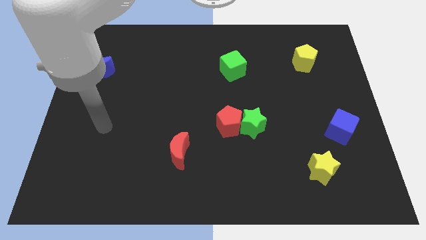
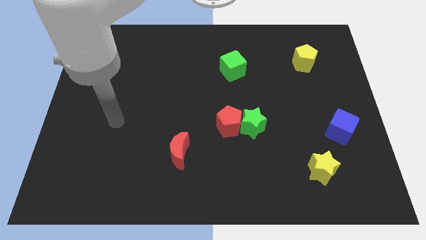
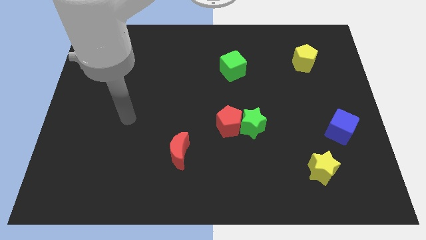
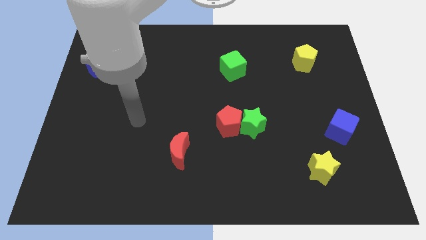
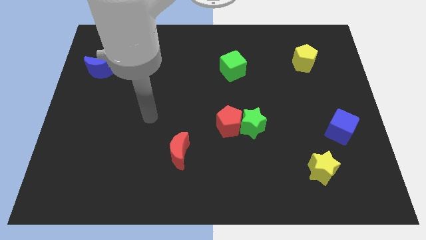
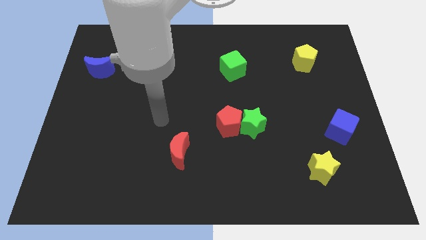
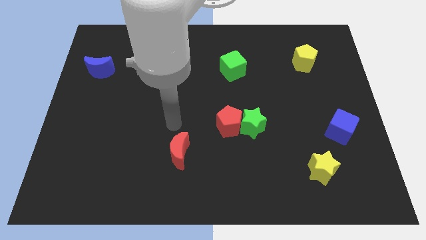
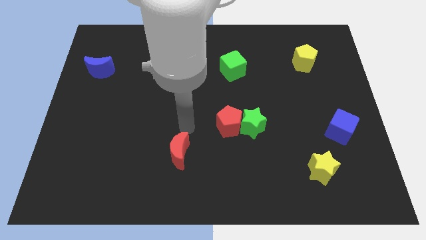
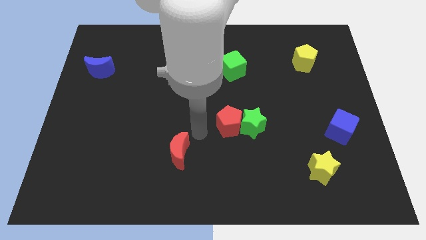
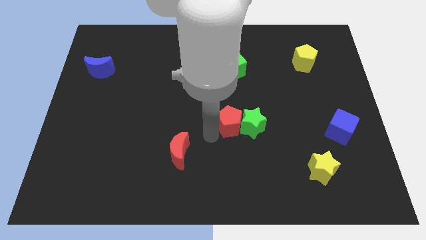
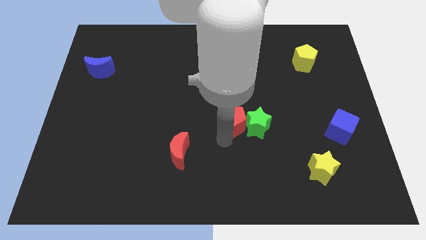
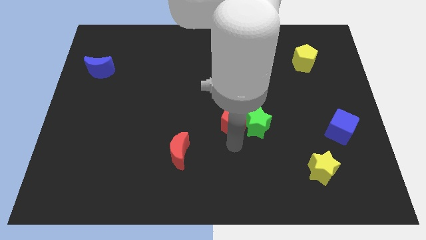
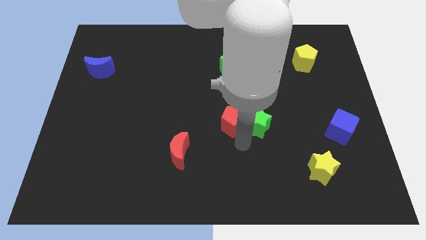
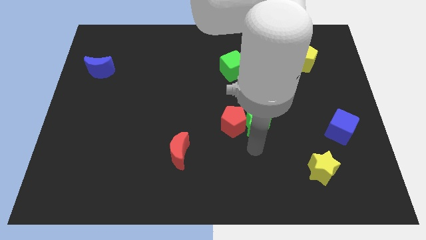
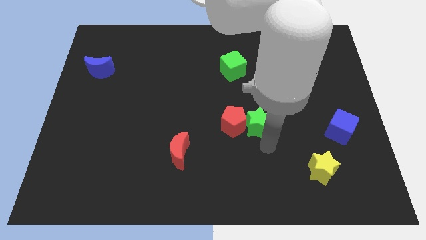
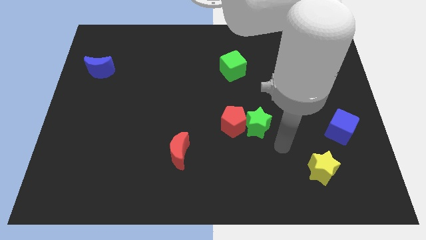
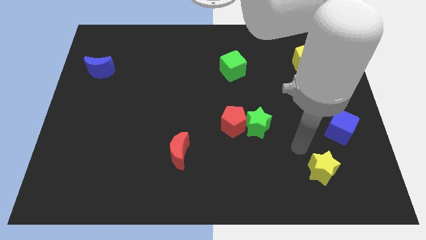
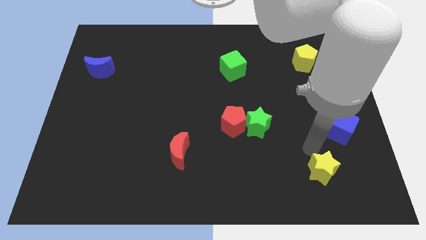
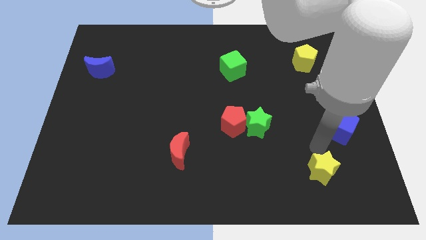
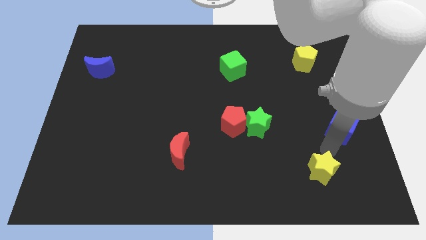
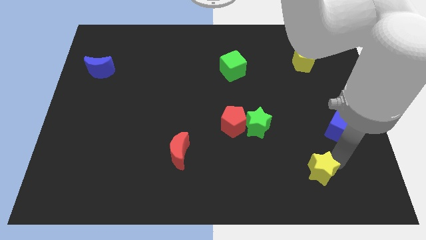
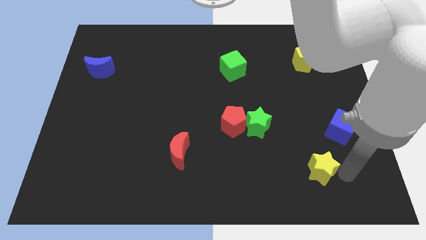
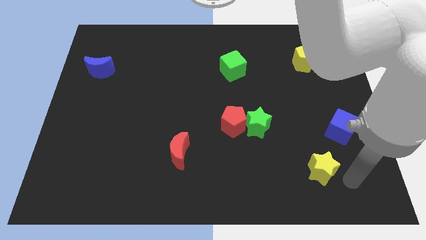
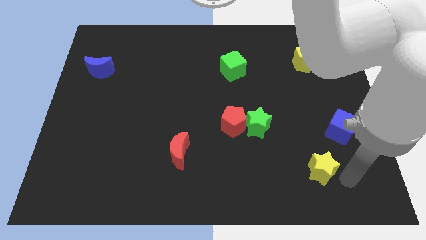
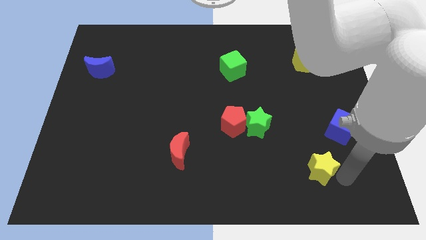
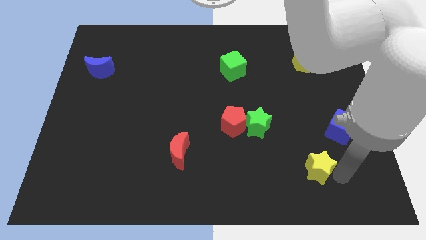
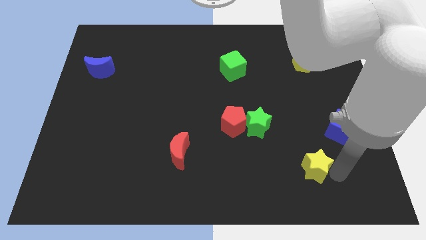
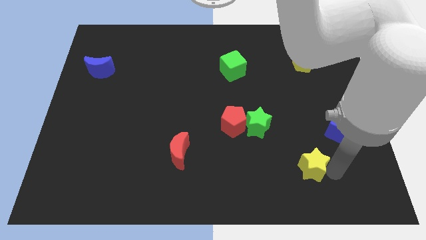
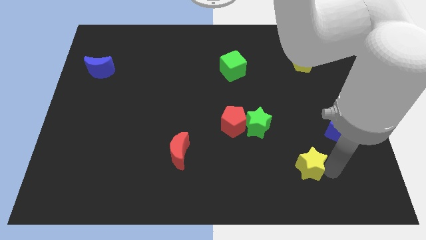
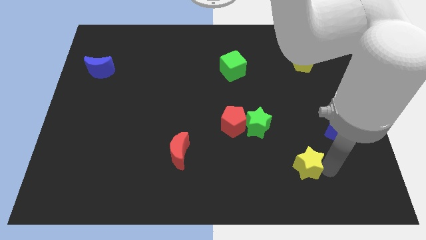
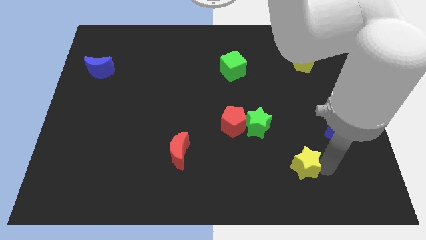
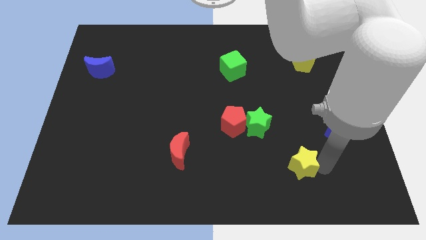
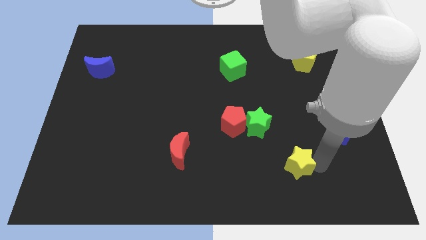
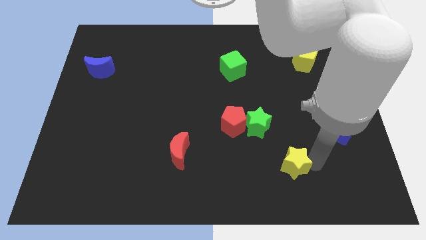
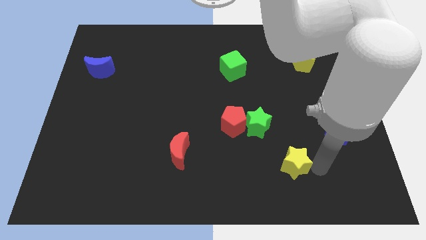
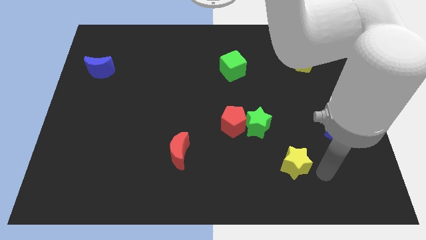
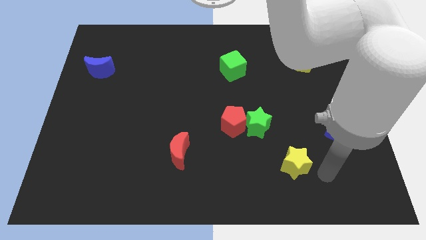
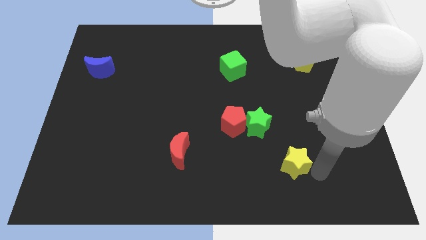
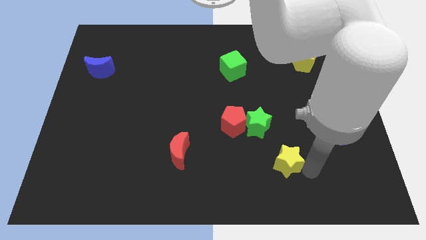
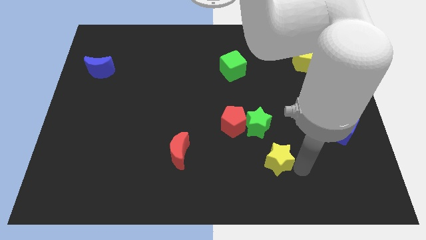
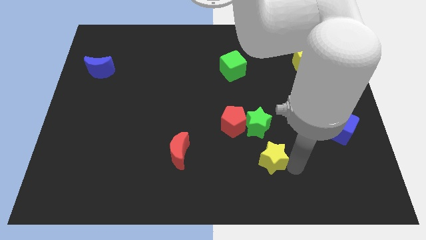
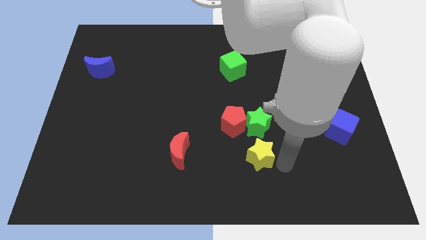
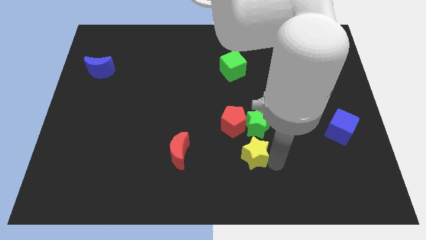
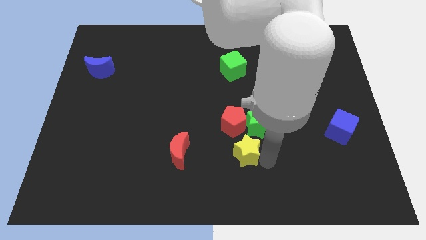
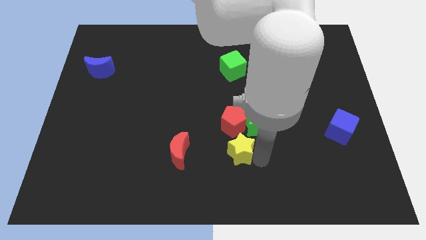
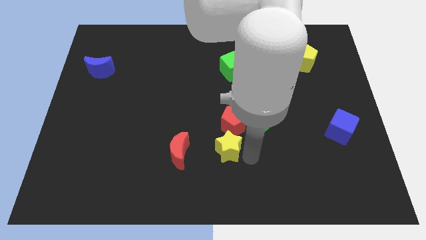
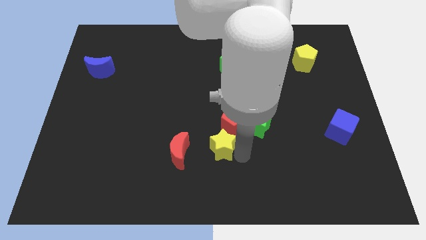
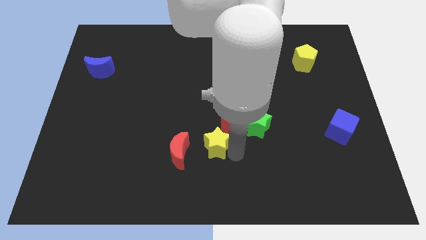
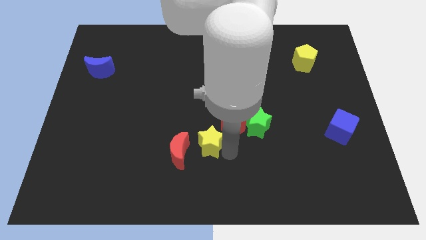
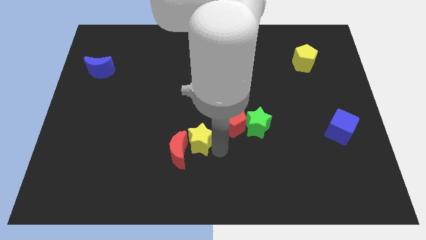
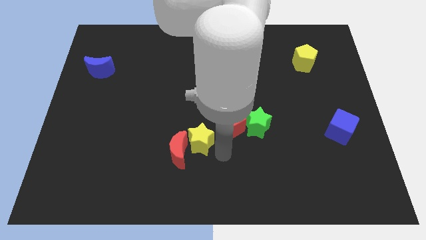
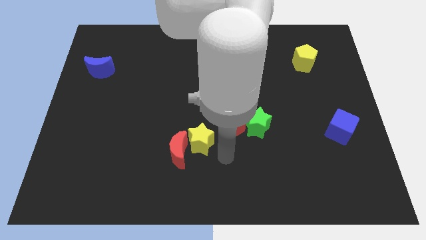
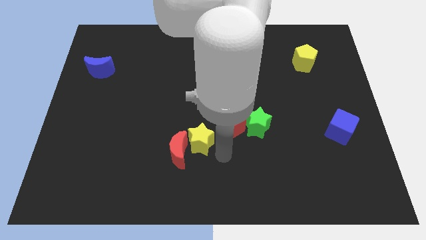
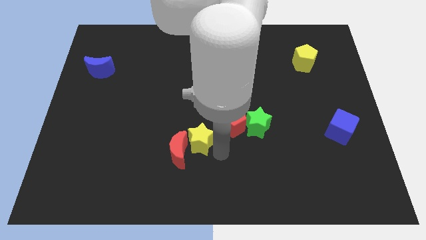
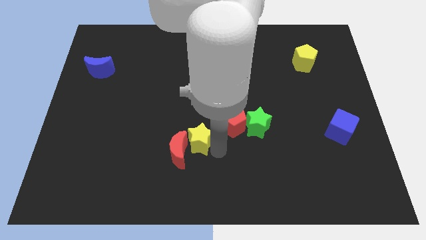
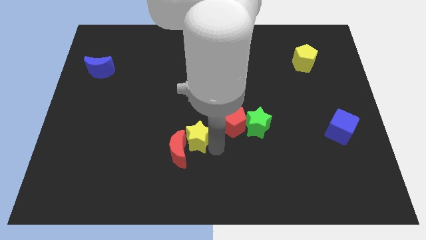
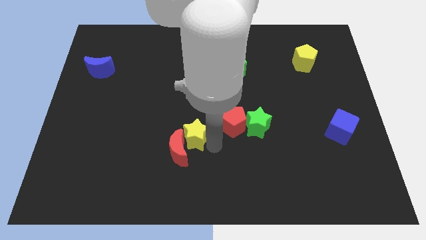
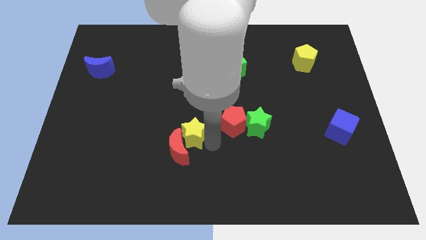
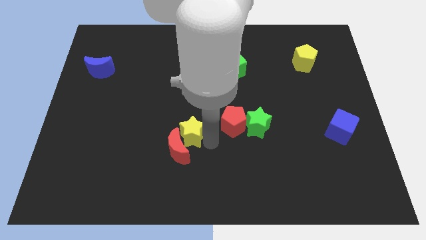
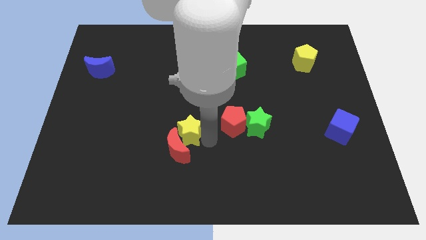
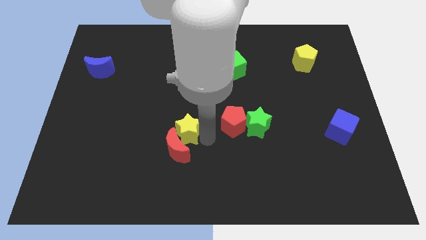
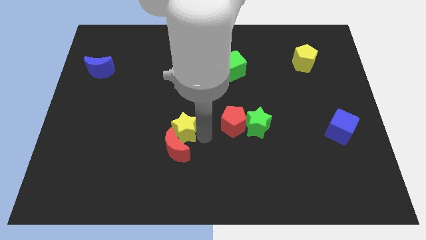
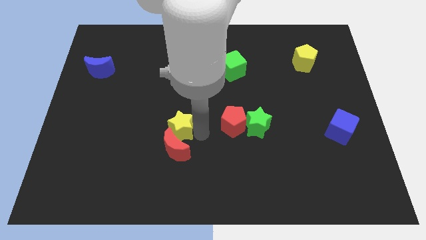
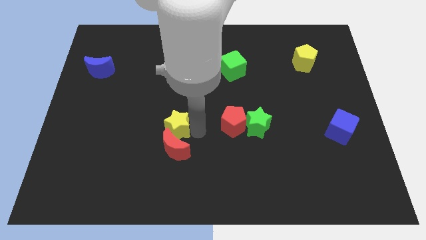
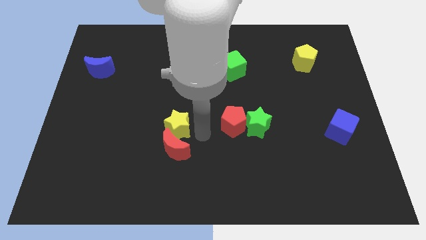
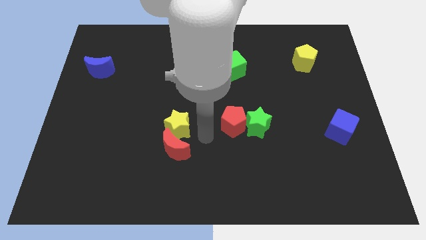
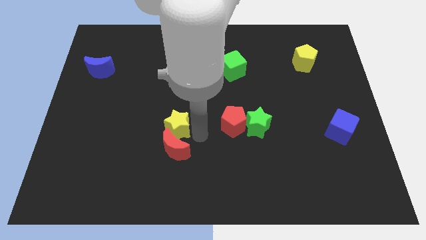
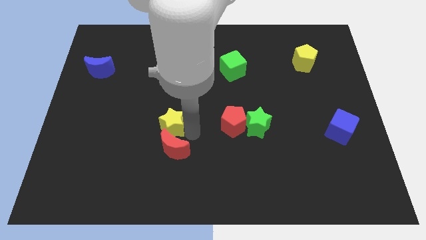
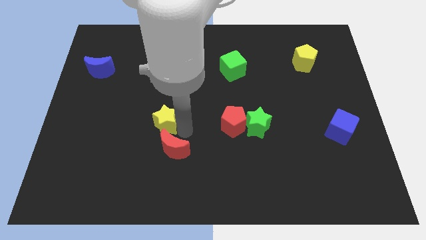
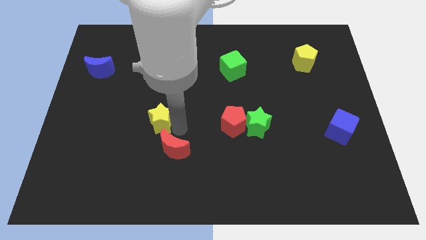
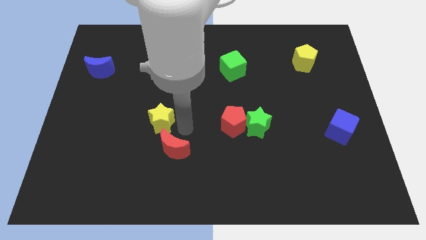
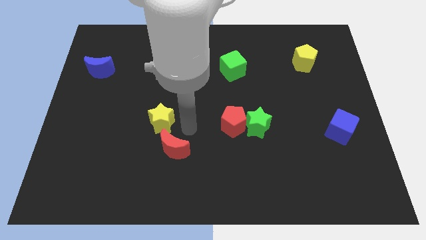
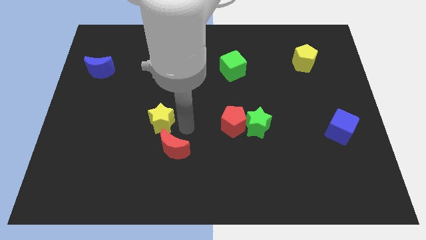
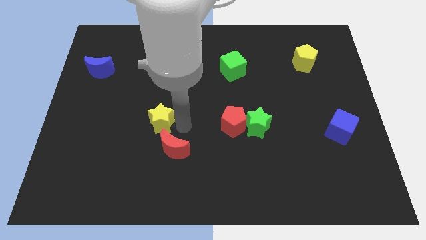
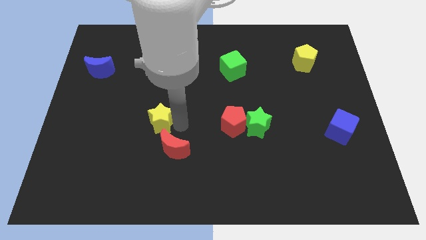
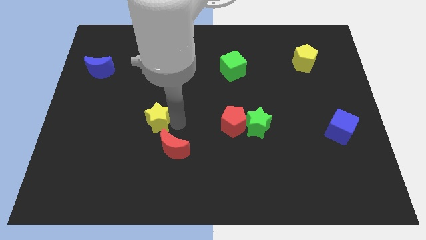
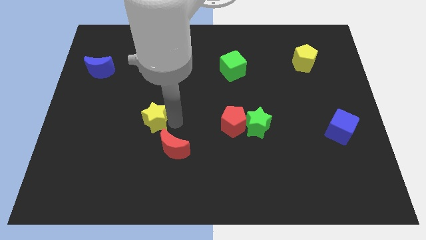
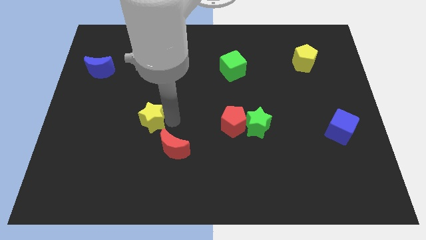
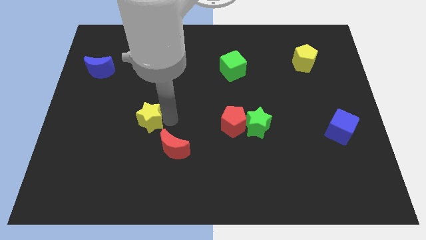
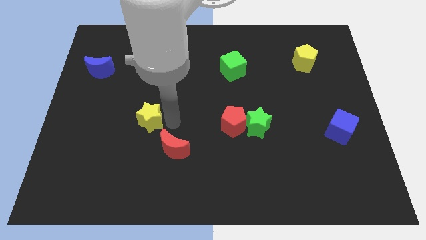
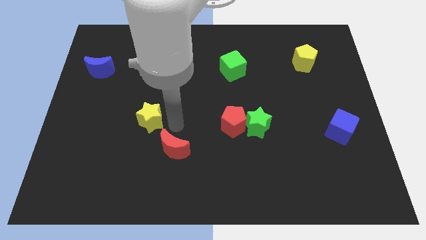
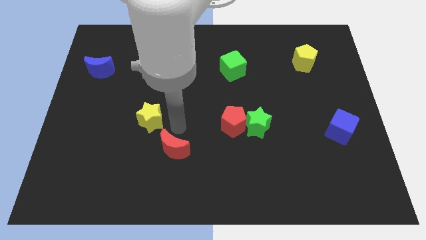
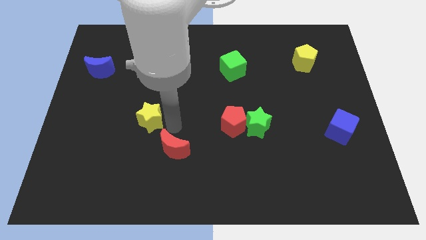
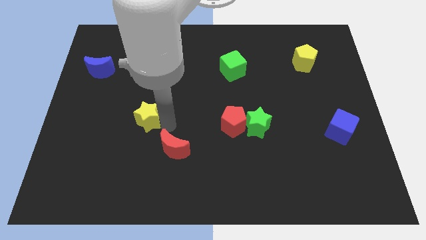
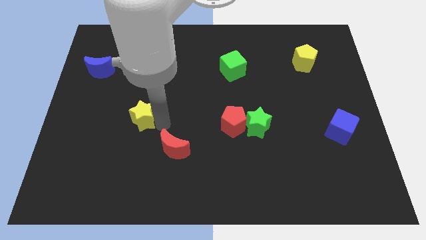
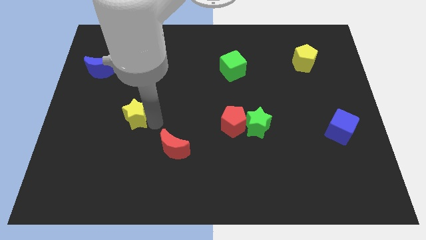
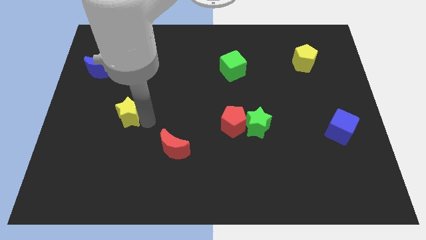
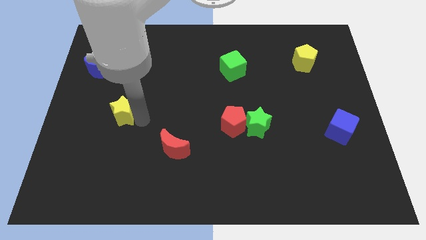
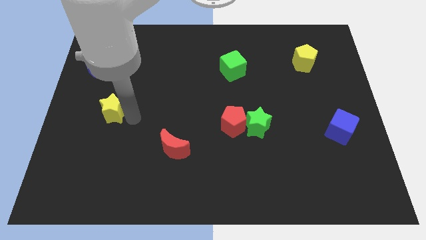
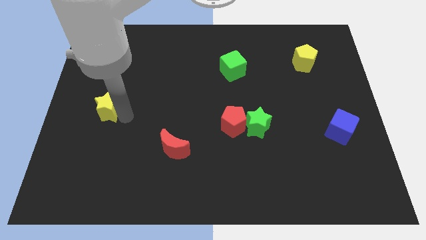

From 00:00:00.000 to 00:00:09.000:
slide the yellow star to the bottom of the blue moon
